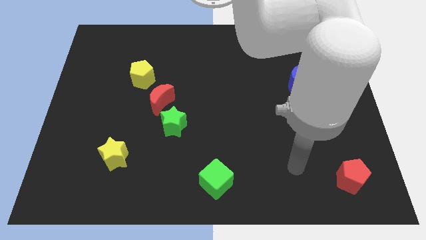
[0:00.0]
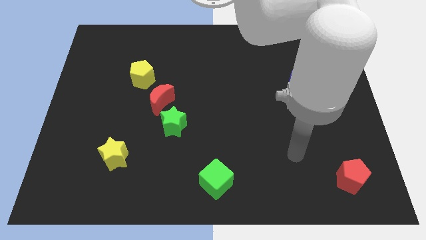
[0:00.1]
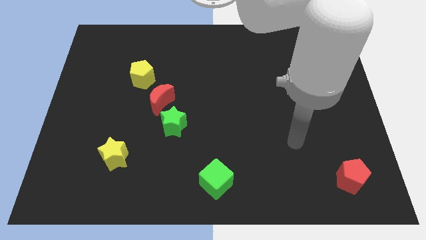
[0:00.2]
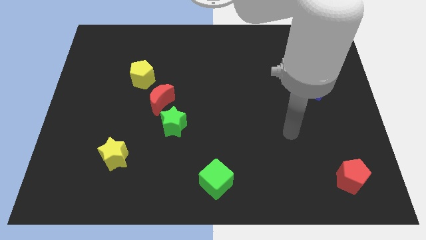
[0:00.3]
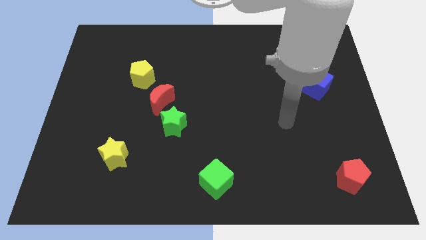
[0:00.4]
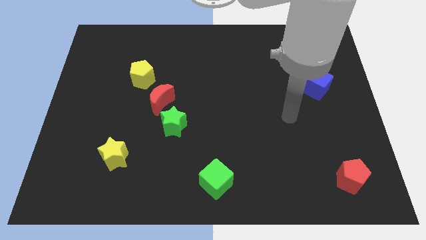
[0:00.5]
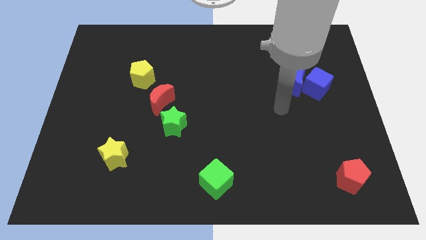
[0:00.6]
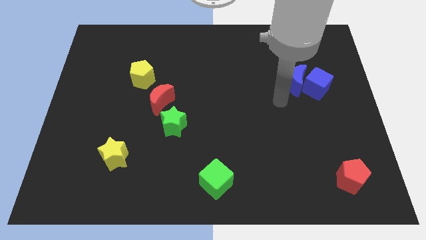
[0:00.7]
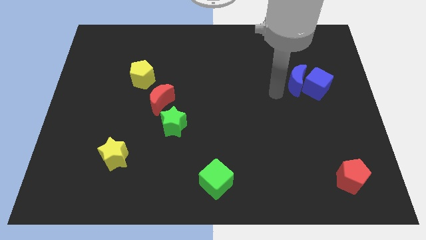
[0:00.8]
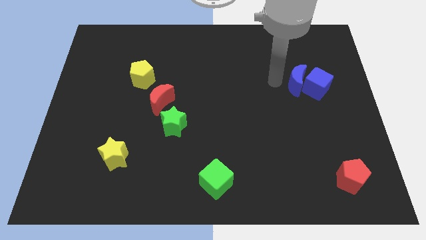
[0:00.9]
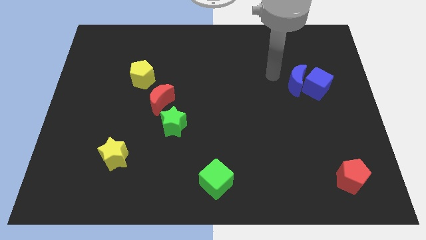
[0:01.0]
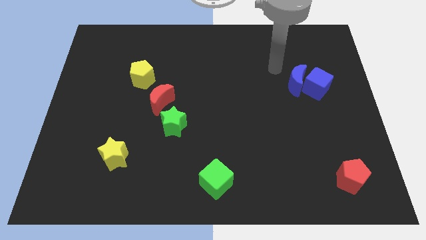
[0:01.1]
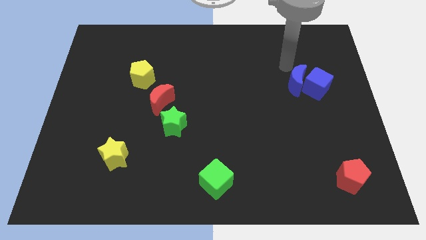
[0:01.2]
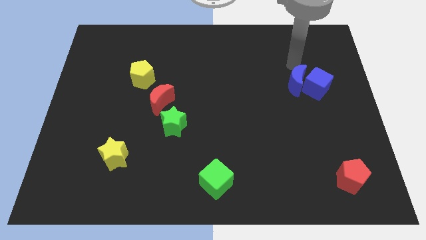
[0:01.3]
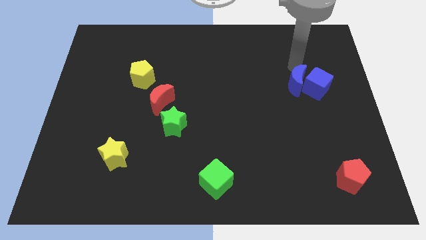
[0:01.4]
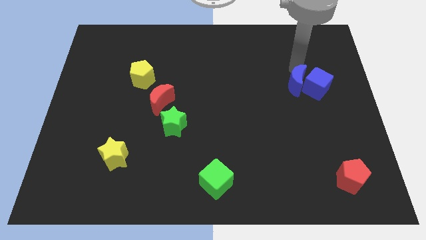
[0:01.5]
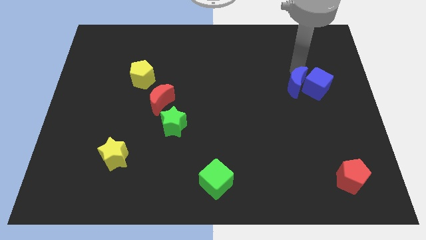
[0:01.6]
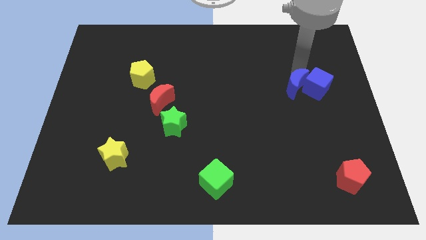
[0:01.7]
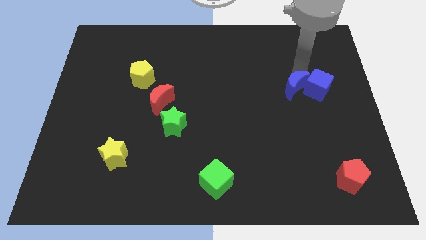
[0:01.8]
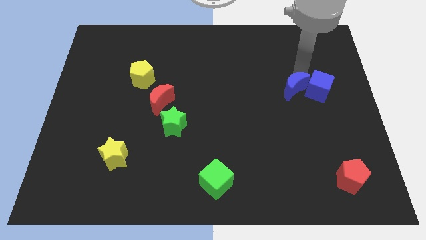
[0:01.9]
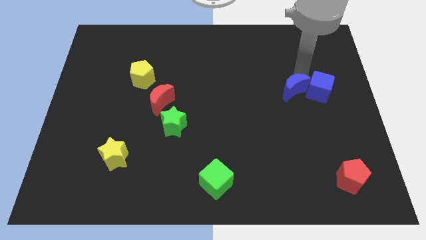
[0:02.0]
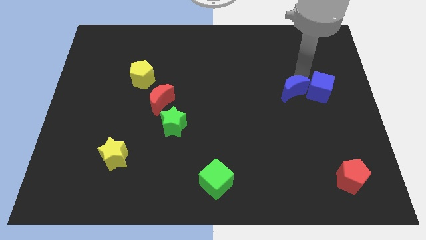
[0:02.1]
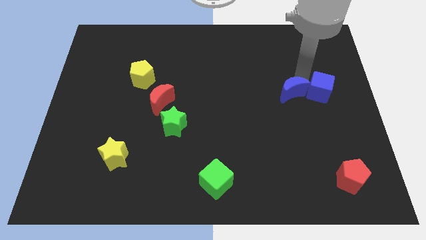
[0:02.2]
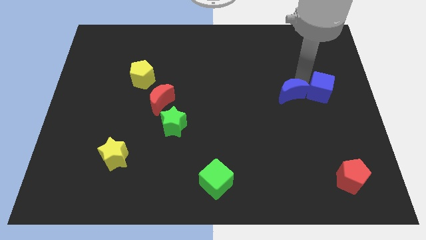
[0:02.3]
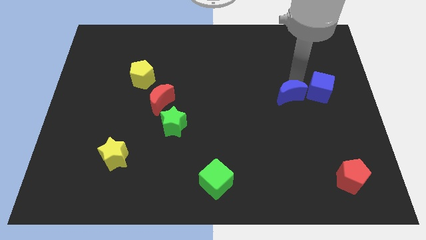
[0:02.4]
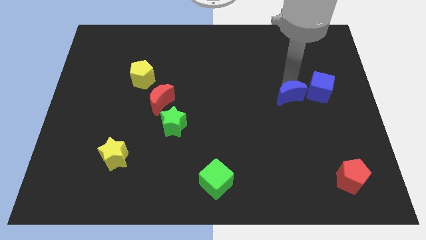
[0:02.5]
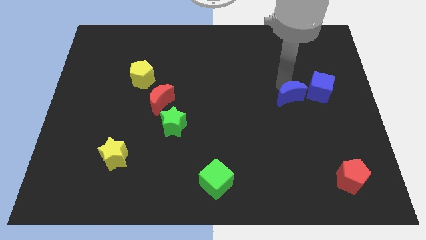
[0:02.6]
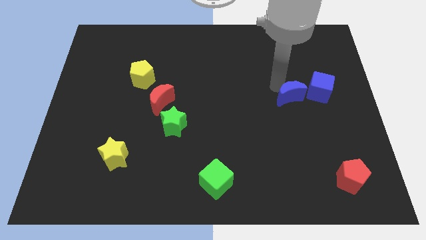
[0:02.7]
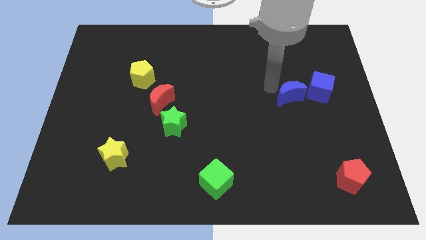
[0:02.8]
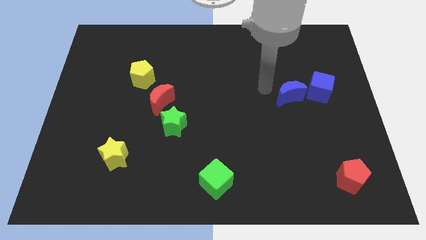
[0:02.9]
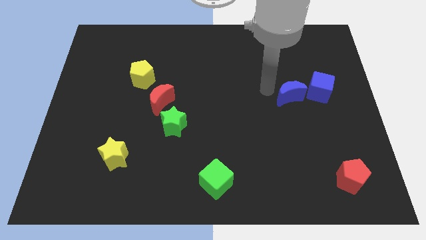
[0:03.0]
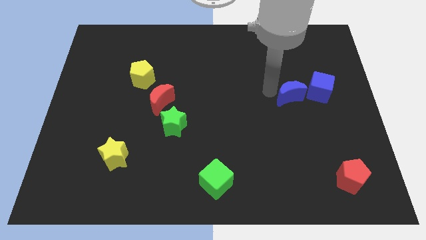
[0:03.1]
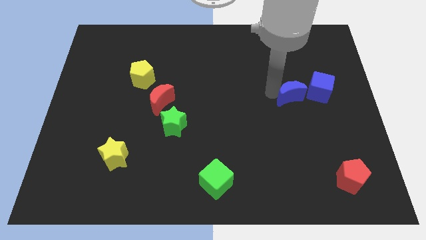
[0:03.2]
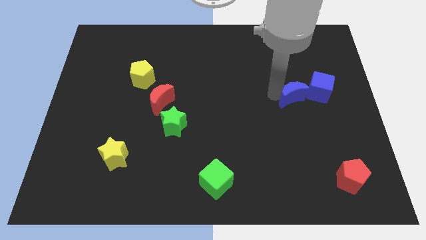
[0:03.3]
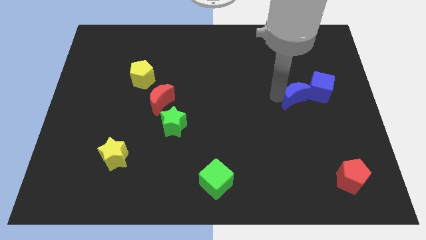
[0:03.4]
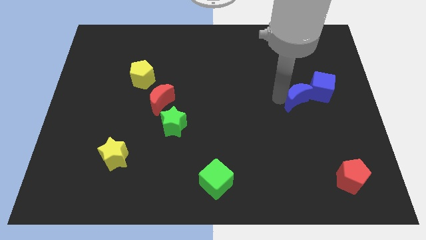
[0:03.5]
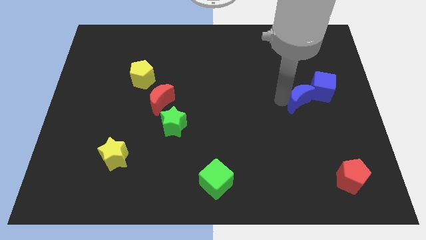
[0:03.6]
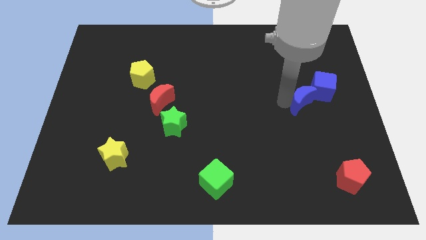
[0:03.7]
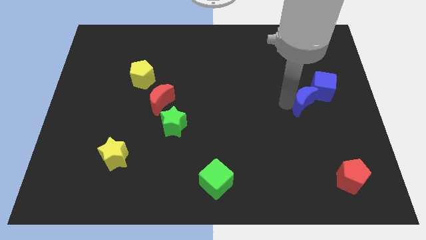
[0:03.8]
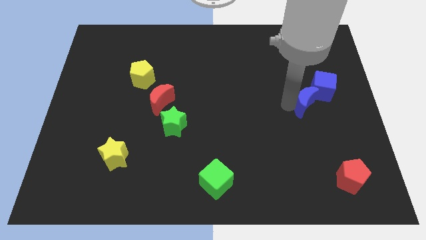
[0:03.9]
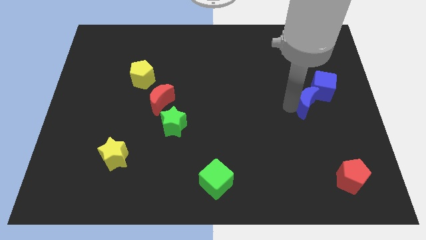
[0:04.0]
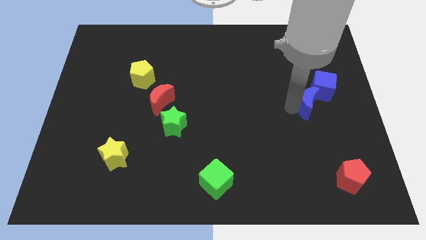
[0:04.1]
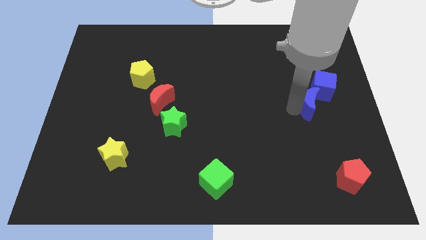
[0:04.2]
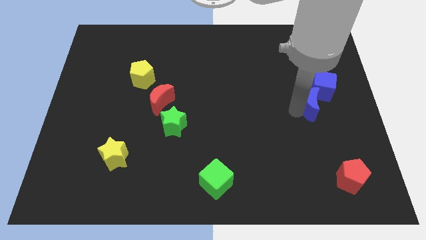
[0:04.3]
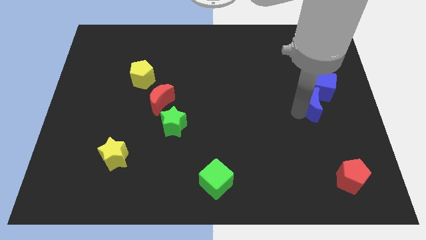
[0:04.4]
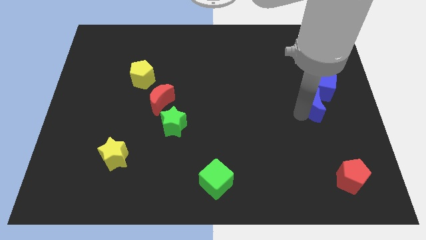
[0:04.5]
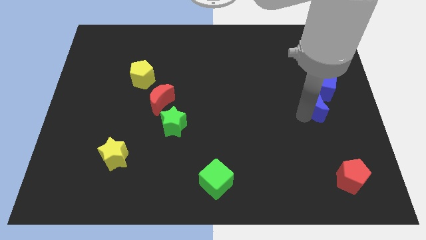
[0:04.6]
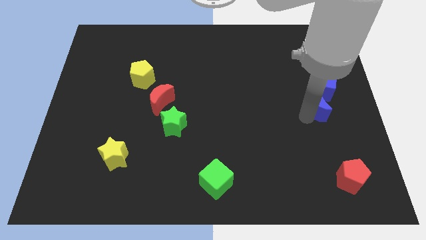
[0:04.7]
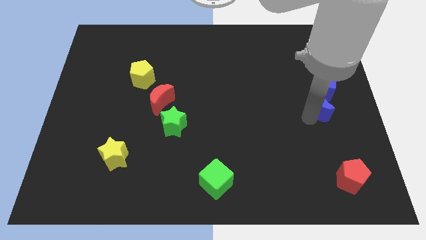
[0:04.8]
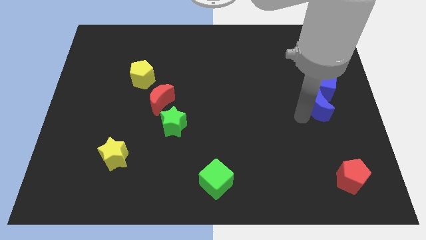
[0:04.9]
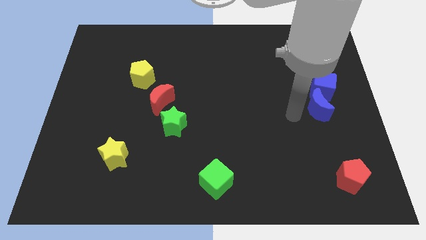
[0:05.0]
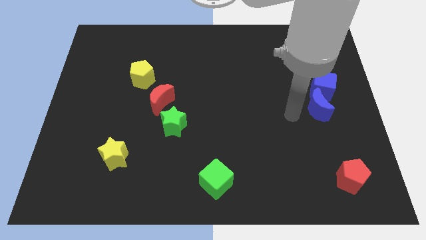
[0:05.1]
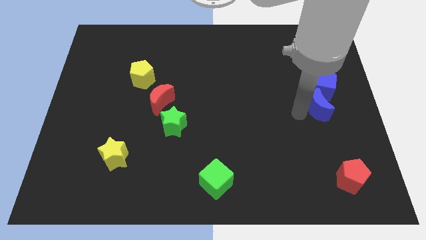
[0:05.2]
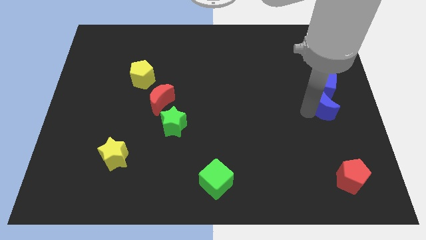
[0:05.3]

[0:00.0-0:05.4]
slide the blue moon to the right side of the board
